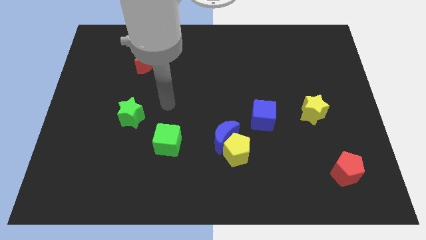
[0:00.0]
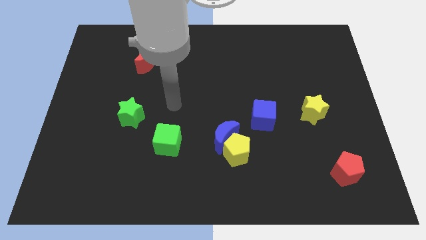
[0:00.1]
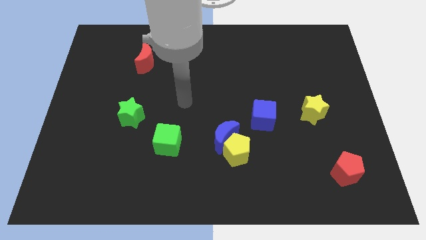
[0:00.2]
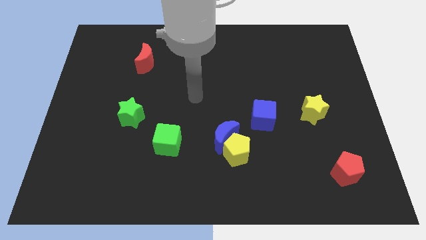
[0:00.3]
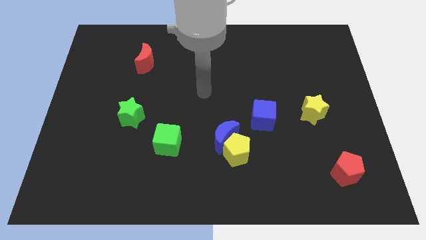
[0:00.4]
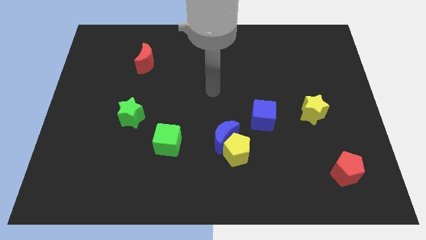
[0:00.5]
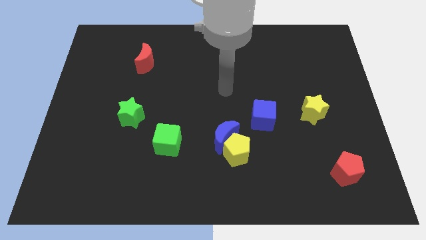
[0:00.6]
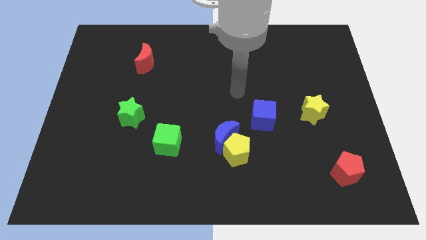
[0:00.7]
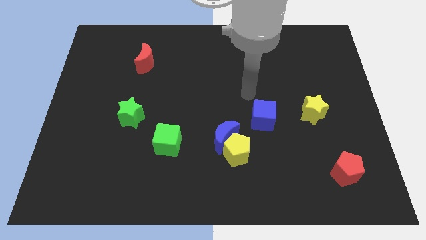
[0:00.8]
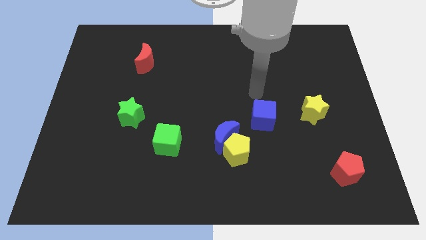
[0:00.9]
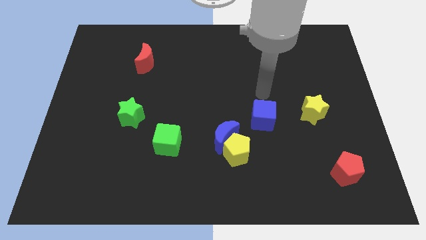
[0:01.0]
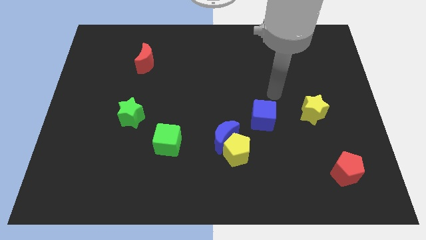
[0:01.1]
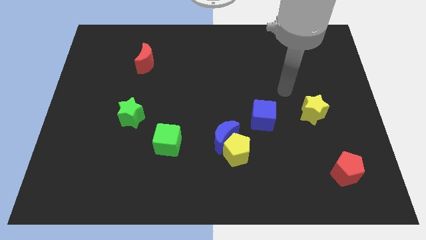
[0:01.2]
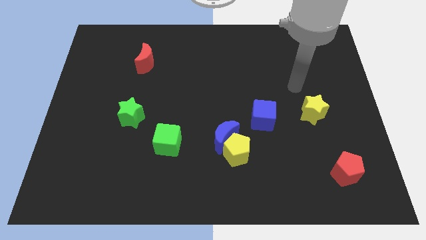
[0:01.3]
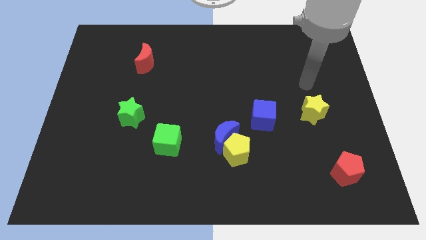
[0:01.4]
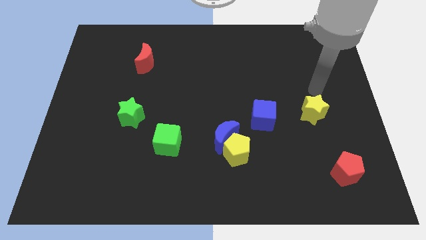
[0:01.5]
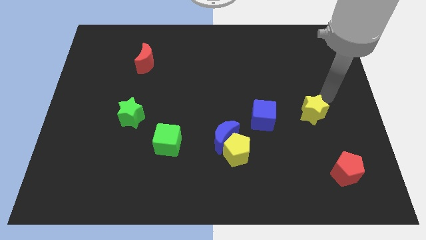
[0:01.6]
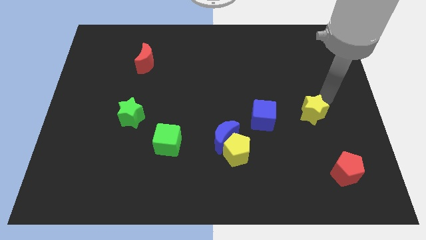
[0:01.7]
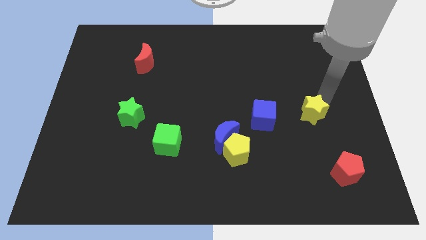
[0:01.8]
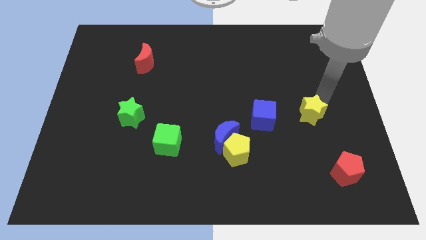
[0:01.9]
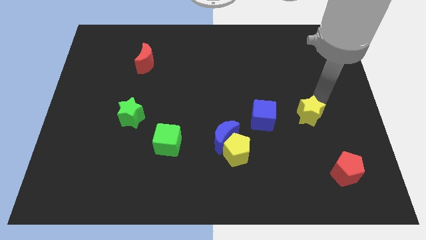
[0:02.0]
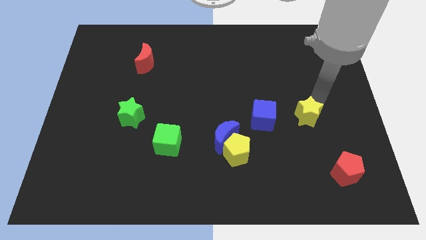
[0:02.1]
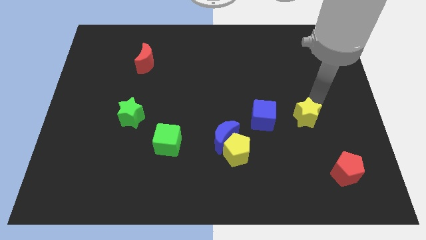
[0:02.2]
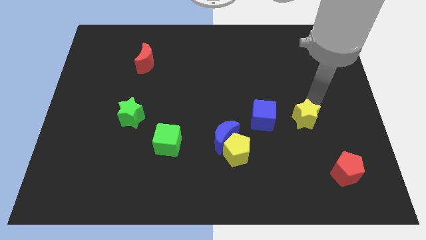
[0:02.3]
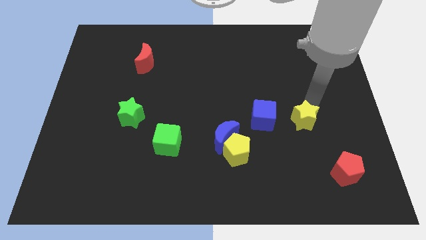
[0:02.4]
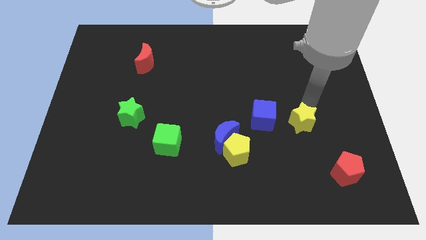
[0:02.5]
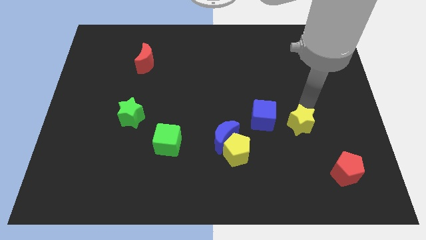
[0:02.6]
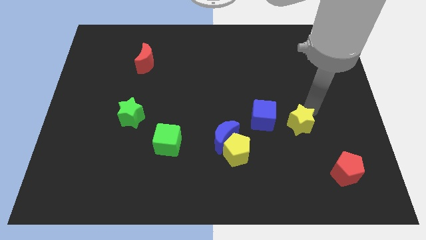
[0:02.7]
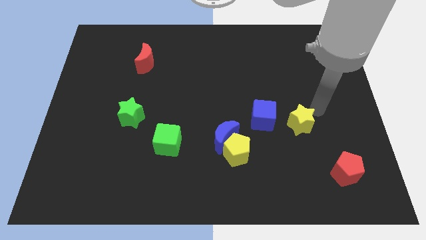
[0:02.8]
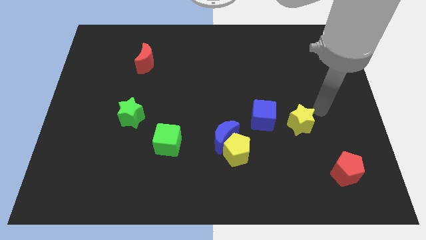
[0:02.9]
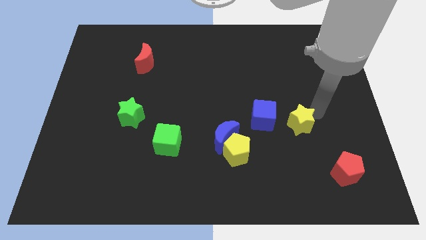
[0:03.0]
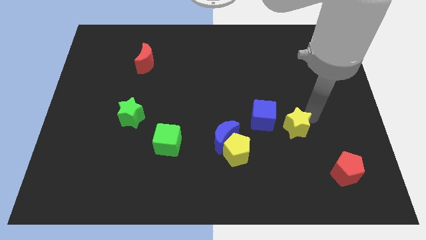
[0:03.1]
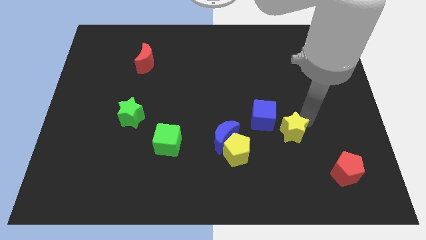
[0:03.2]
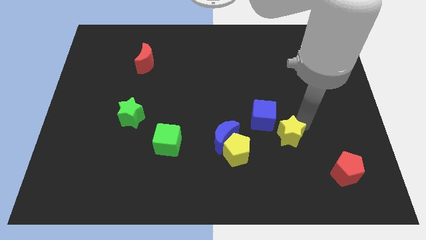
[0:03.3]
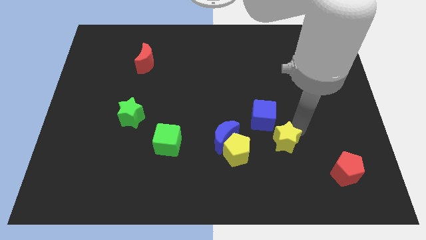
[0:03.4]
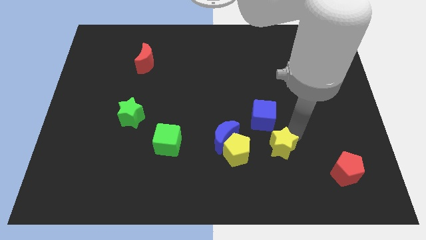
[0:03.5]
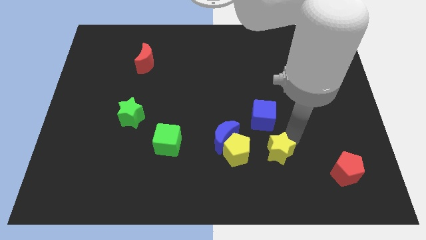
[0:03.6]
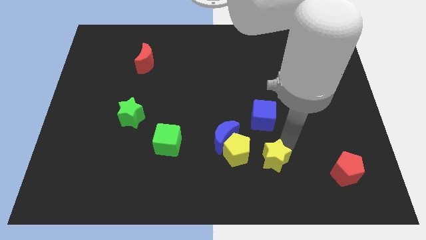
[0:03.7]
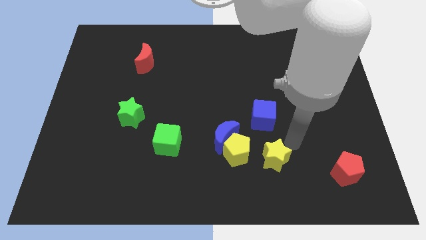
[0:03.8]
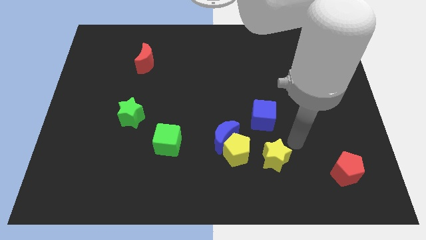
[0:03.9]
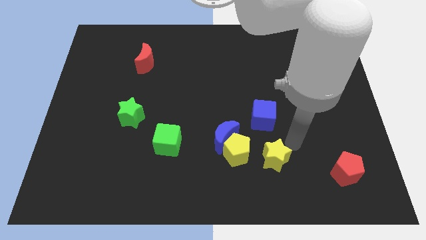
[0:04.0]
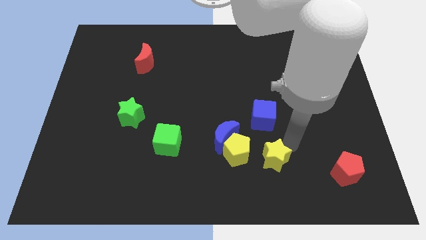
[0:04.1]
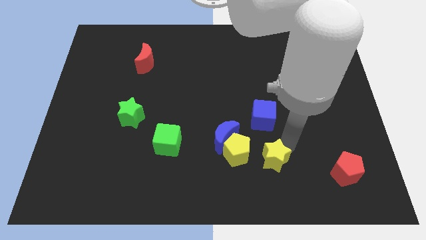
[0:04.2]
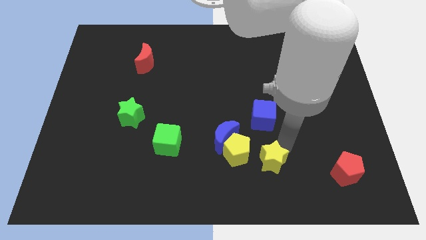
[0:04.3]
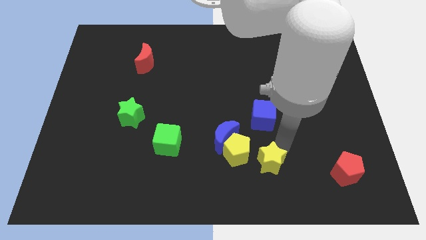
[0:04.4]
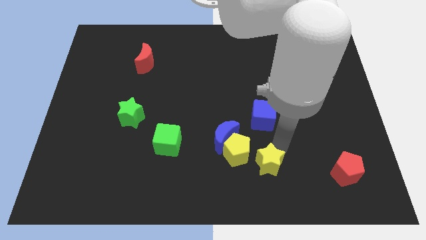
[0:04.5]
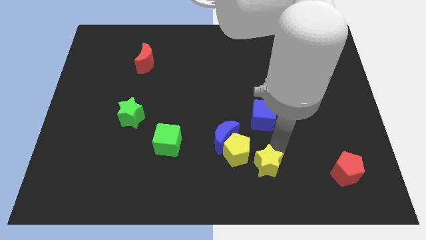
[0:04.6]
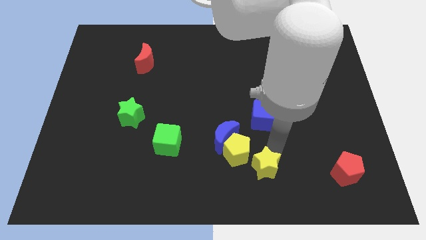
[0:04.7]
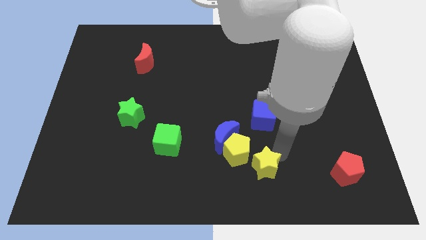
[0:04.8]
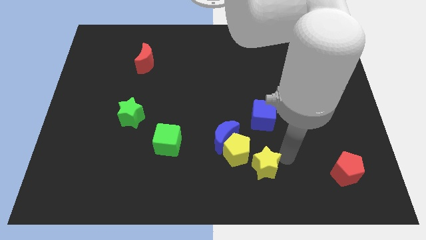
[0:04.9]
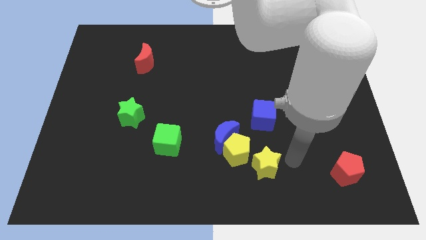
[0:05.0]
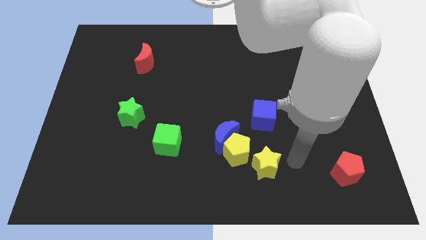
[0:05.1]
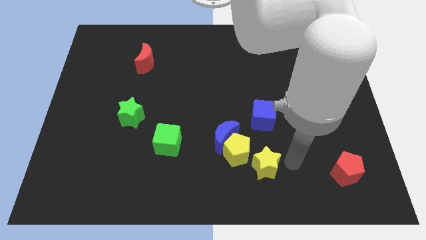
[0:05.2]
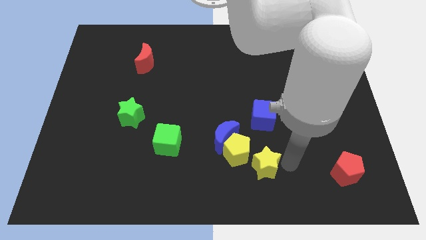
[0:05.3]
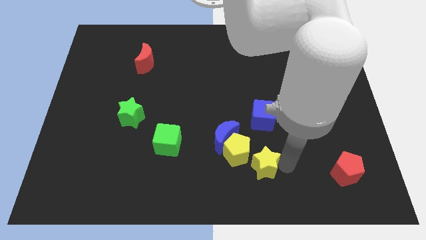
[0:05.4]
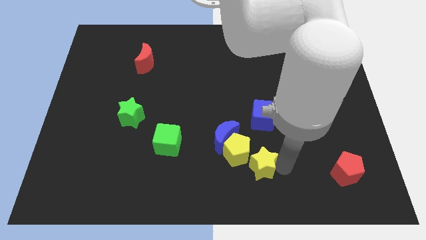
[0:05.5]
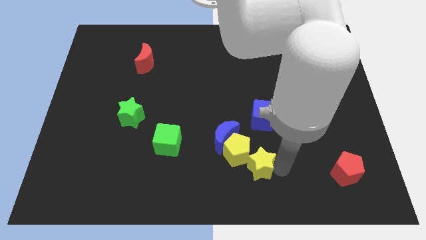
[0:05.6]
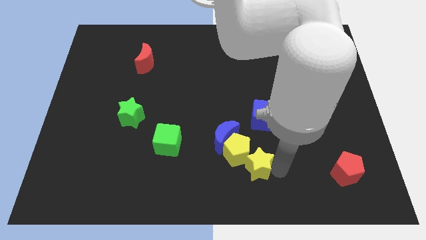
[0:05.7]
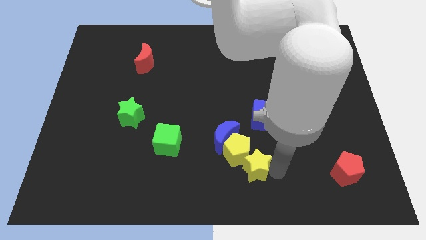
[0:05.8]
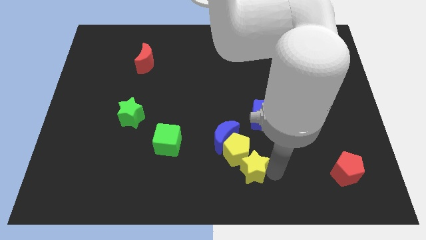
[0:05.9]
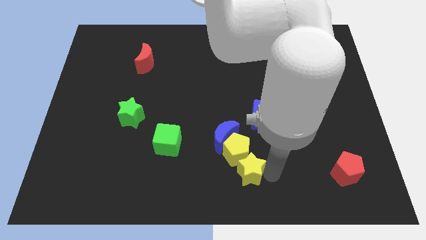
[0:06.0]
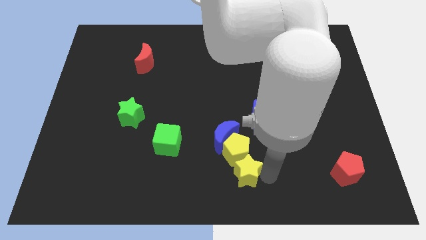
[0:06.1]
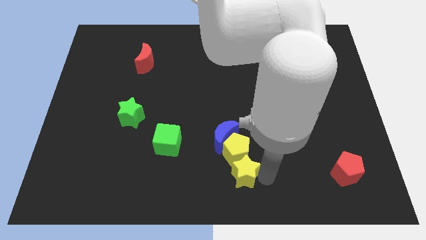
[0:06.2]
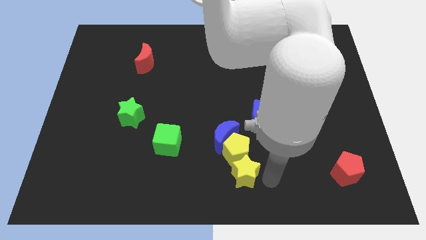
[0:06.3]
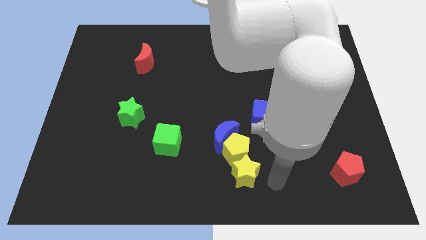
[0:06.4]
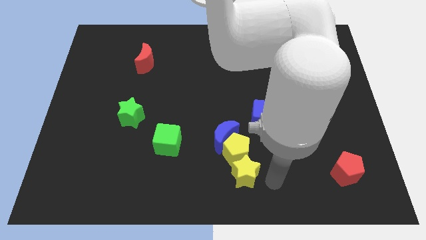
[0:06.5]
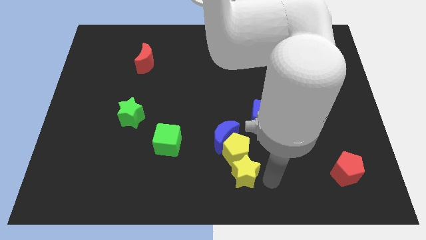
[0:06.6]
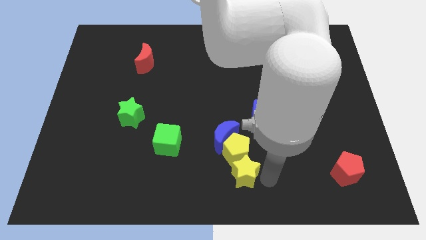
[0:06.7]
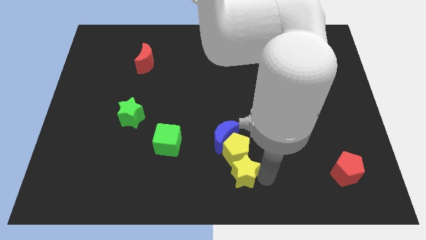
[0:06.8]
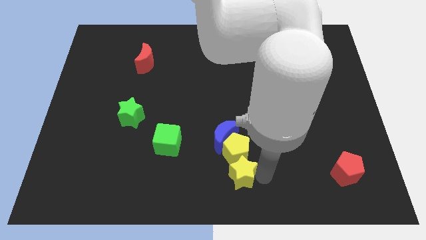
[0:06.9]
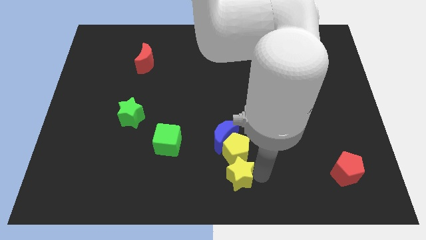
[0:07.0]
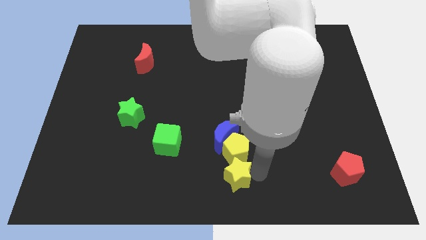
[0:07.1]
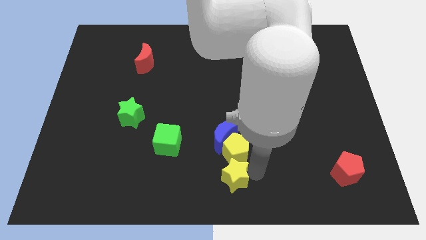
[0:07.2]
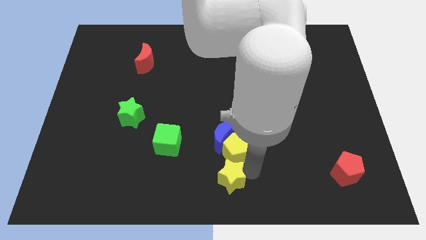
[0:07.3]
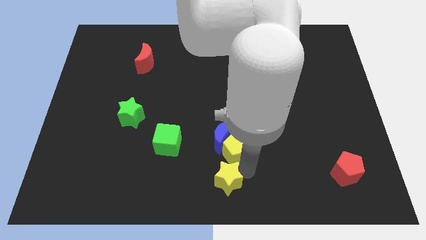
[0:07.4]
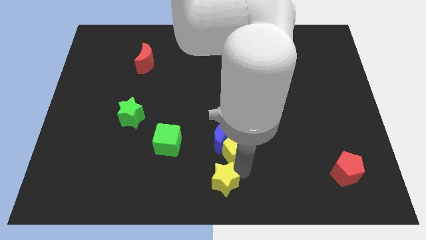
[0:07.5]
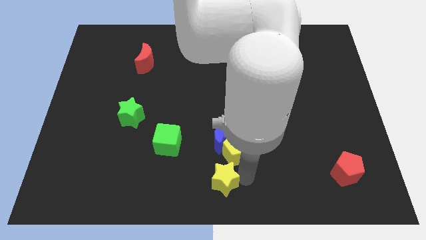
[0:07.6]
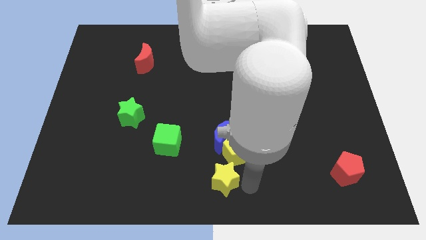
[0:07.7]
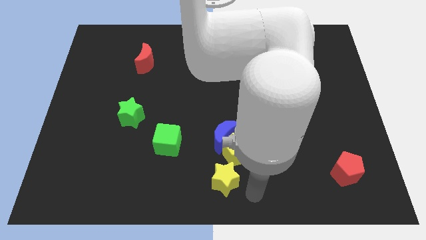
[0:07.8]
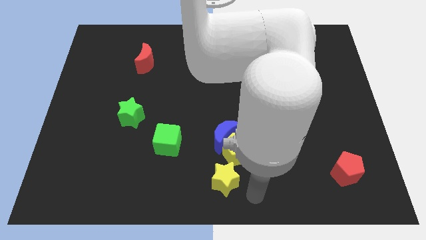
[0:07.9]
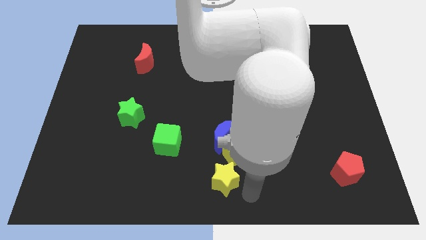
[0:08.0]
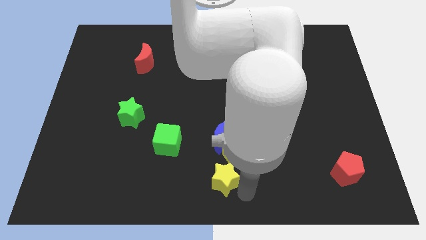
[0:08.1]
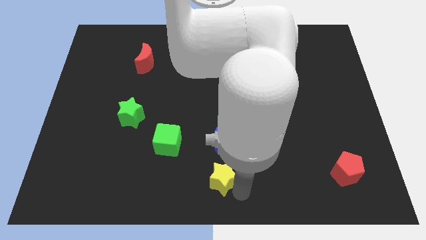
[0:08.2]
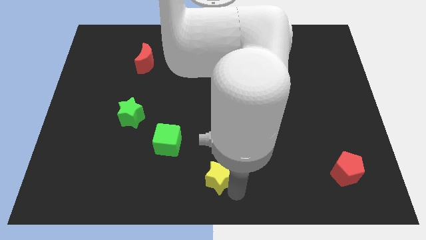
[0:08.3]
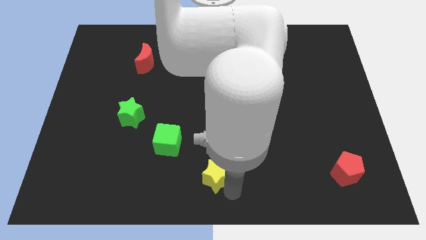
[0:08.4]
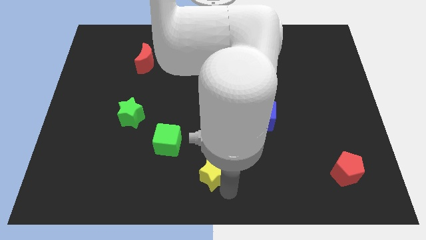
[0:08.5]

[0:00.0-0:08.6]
put the yellow star diagonally down and to the right of the green cube
